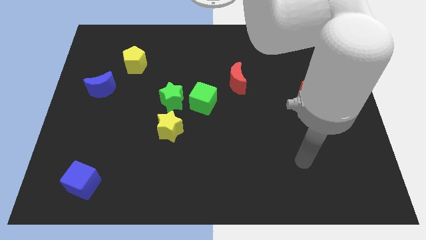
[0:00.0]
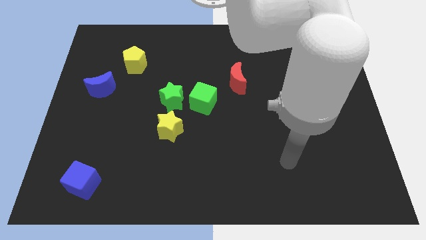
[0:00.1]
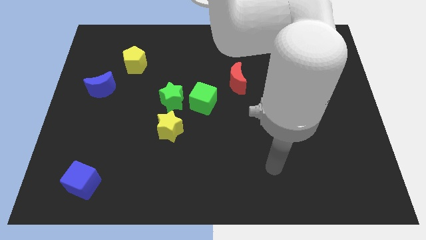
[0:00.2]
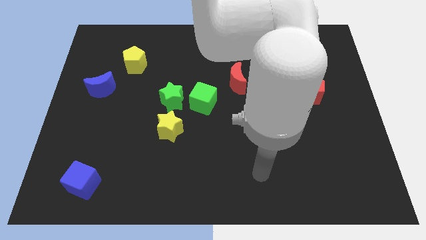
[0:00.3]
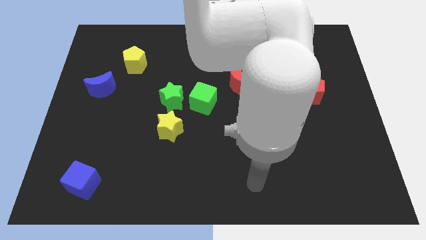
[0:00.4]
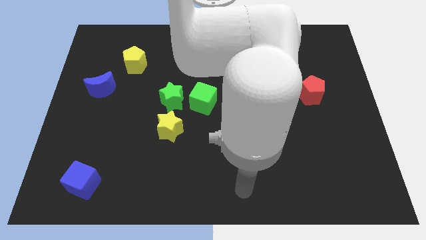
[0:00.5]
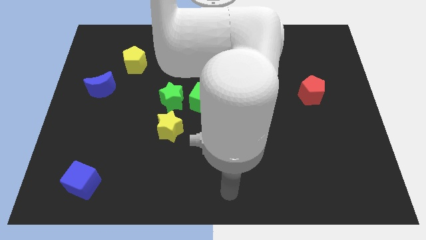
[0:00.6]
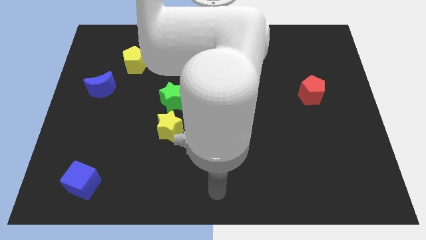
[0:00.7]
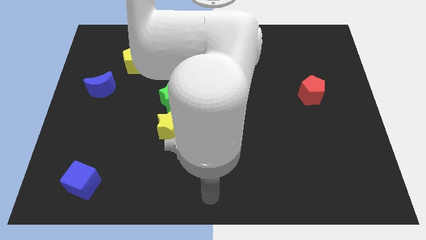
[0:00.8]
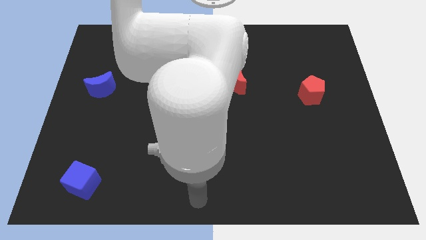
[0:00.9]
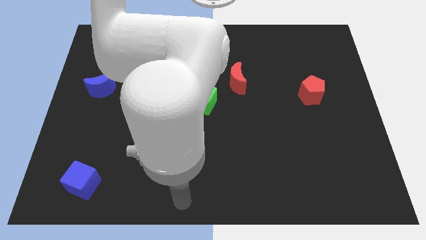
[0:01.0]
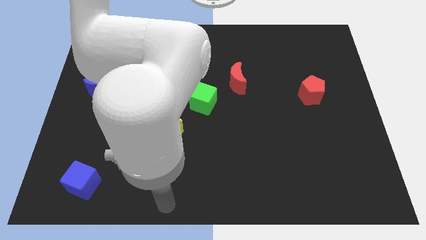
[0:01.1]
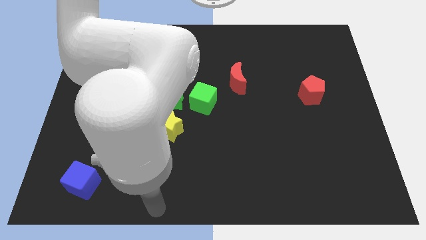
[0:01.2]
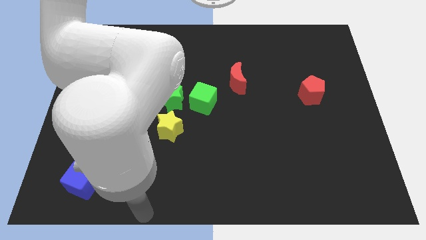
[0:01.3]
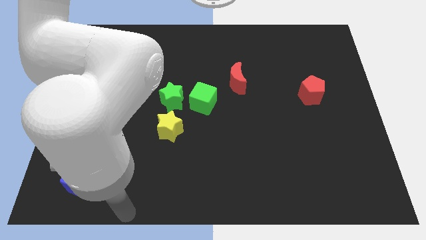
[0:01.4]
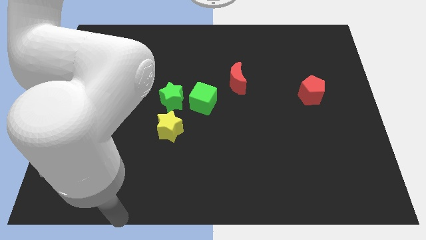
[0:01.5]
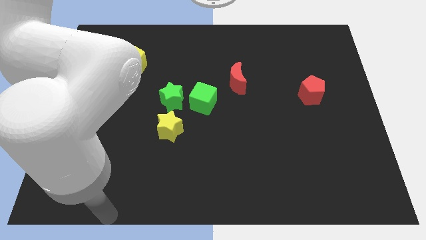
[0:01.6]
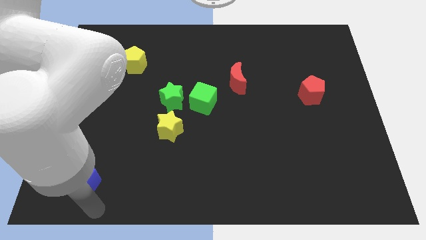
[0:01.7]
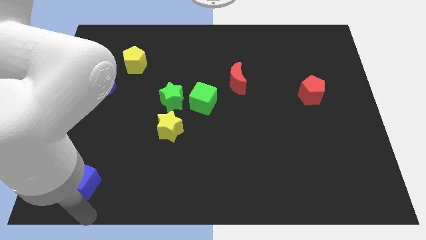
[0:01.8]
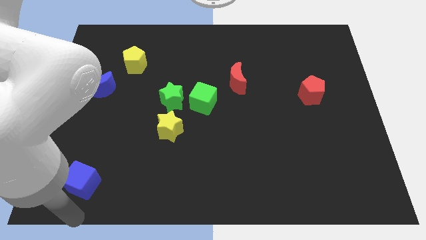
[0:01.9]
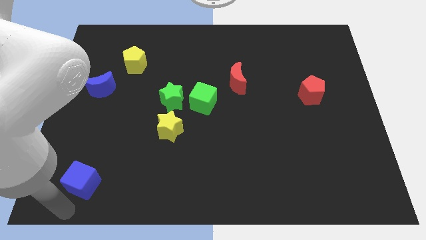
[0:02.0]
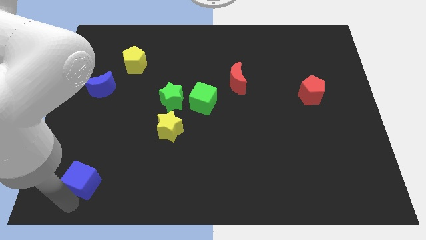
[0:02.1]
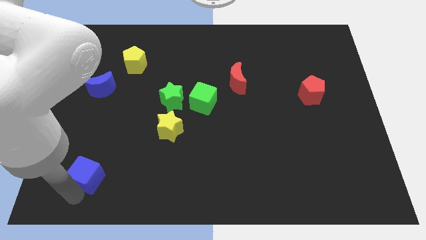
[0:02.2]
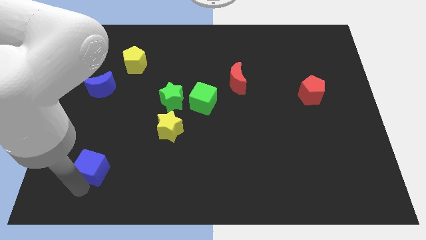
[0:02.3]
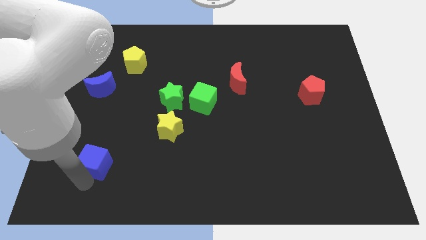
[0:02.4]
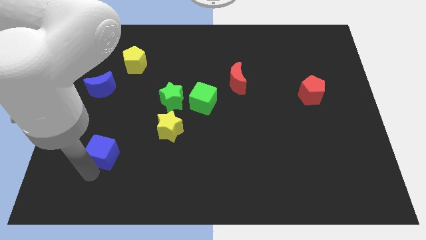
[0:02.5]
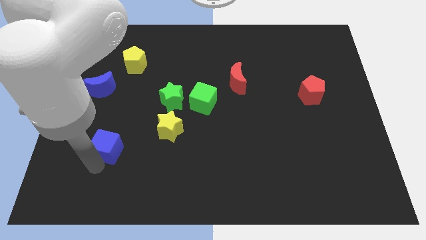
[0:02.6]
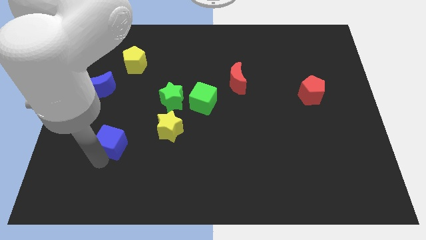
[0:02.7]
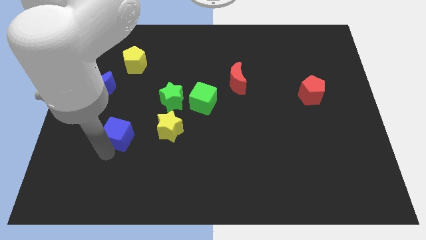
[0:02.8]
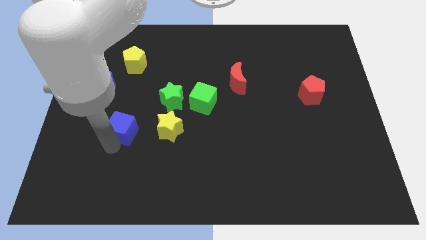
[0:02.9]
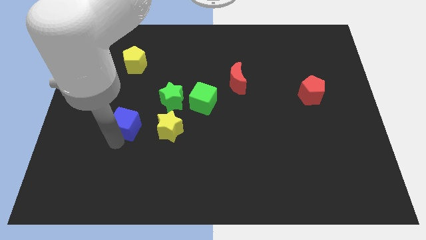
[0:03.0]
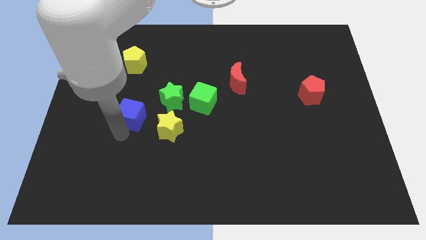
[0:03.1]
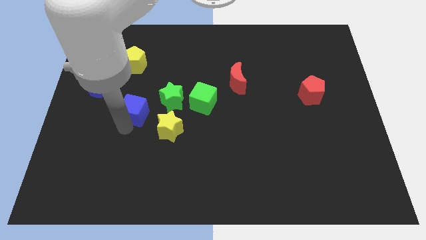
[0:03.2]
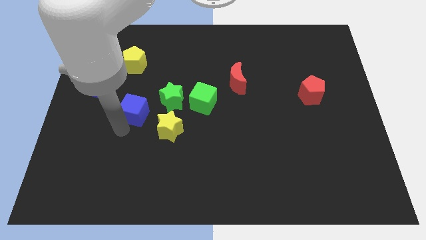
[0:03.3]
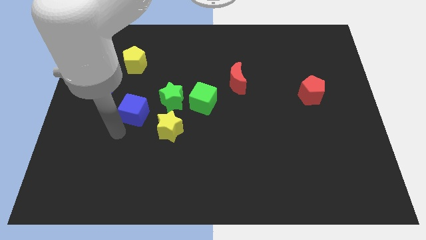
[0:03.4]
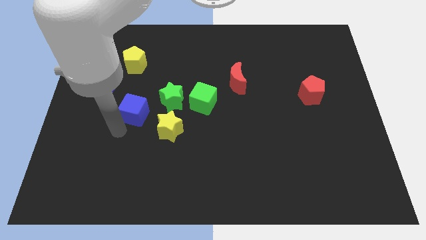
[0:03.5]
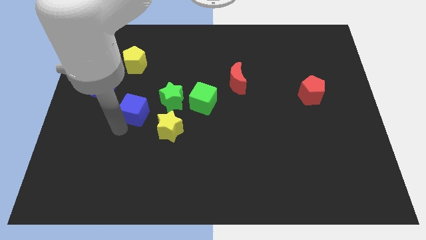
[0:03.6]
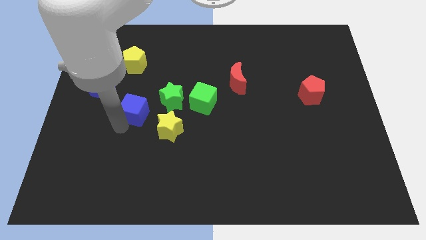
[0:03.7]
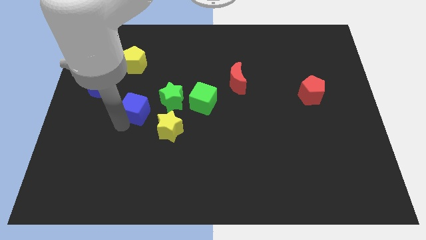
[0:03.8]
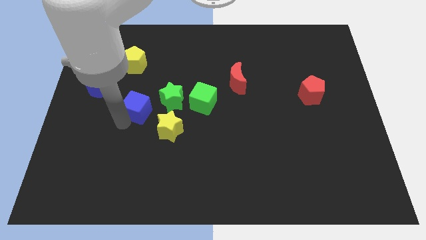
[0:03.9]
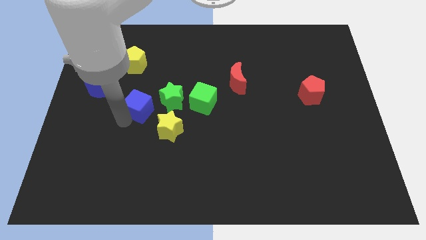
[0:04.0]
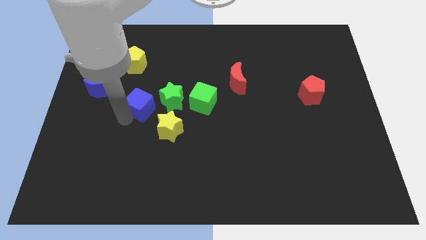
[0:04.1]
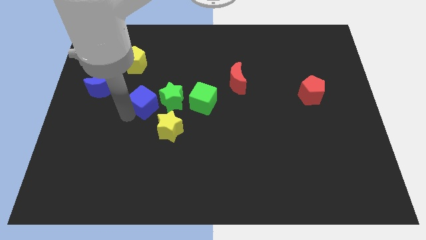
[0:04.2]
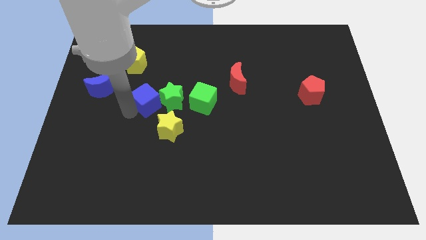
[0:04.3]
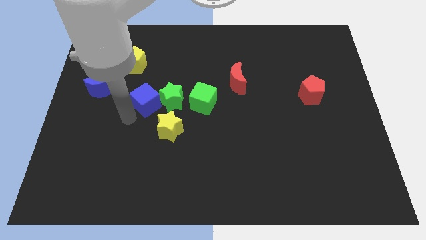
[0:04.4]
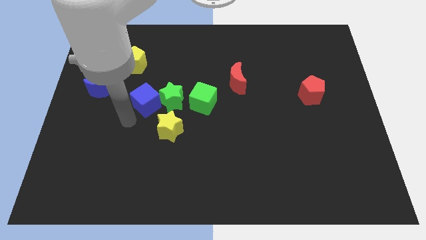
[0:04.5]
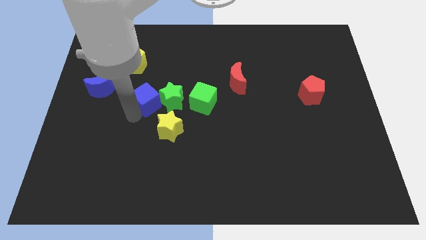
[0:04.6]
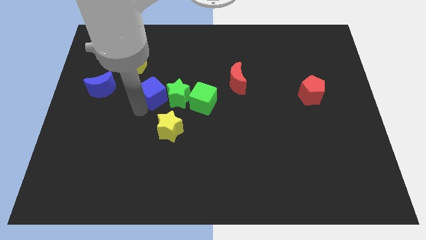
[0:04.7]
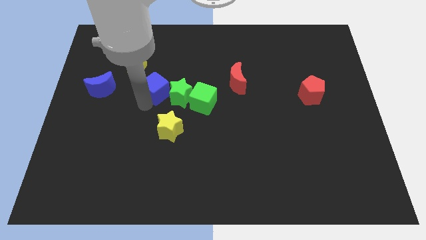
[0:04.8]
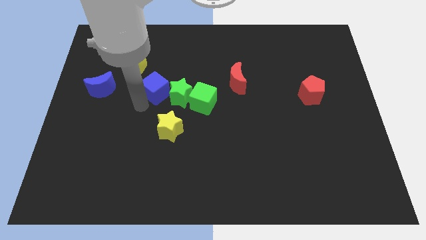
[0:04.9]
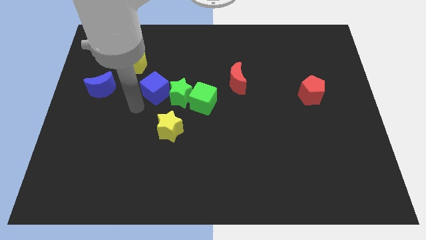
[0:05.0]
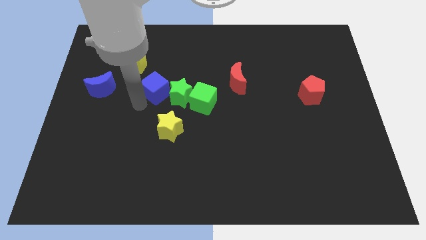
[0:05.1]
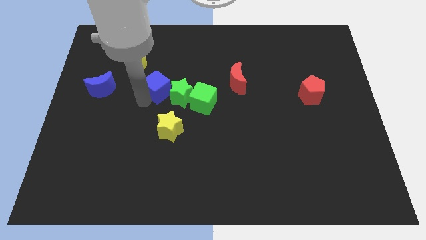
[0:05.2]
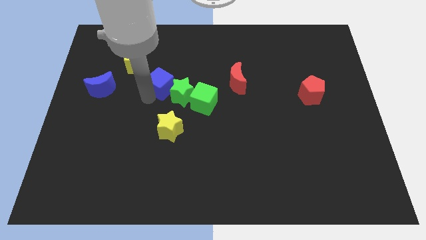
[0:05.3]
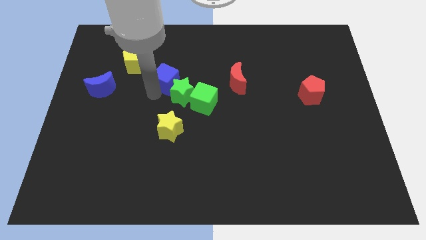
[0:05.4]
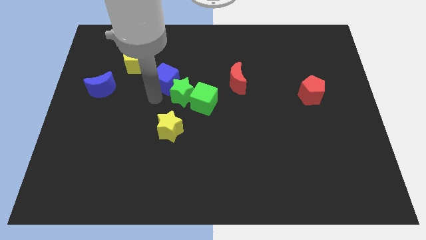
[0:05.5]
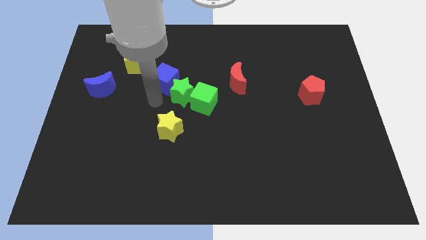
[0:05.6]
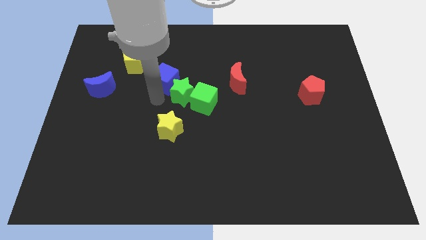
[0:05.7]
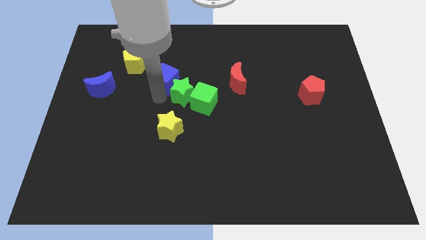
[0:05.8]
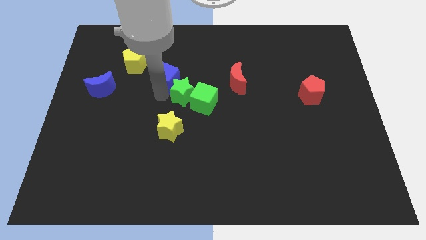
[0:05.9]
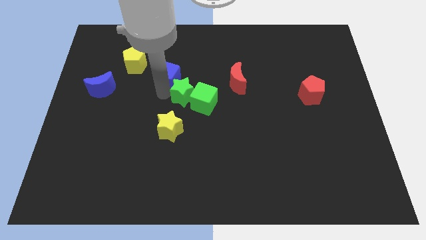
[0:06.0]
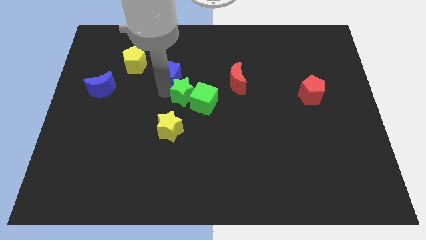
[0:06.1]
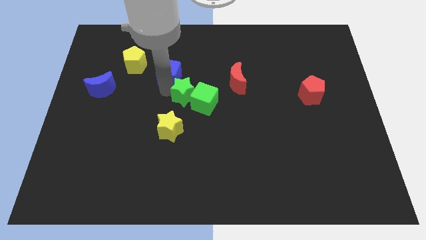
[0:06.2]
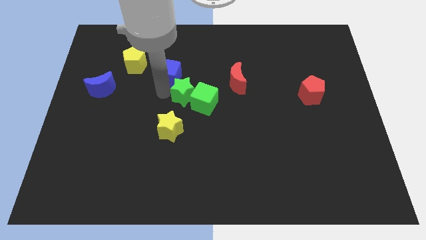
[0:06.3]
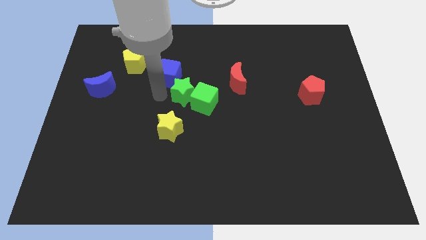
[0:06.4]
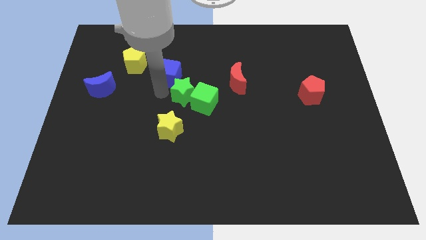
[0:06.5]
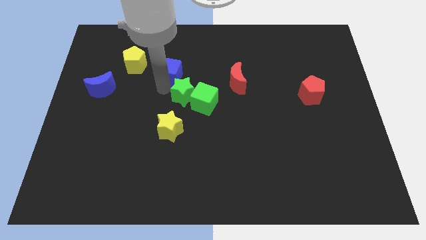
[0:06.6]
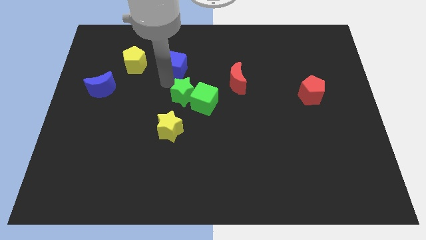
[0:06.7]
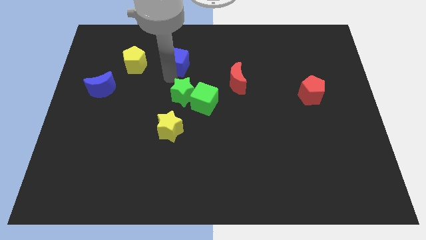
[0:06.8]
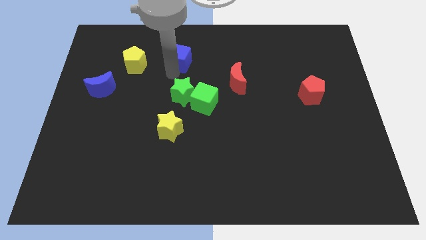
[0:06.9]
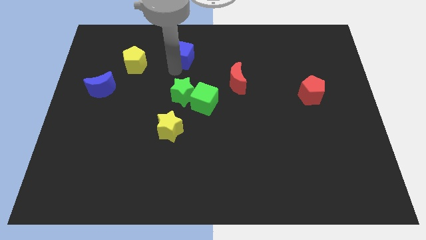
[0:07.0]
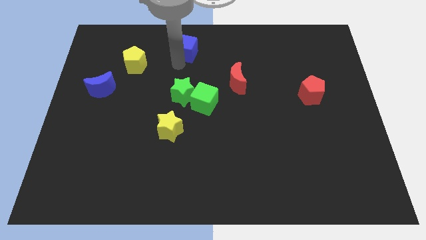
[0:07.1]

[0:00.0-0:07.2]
put the blue cube to the top side

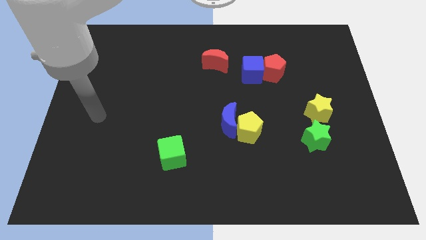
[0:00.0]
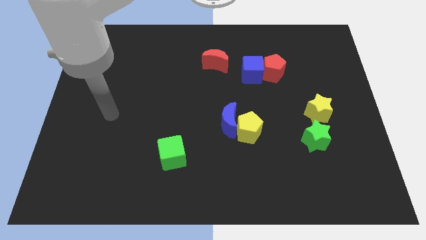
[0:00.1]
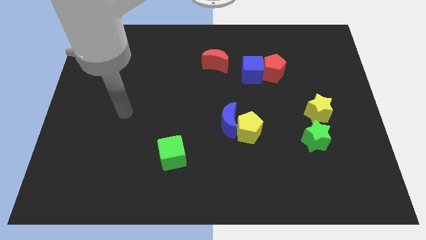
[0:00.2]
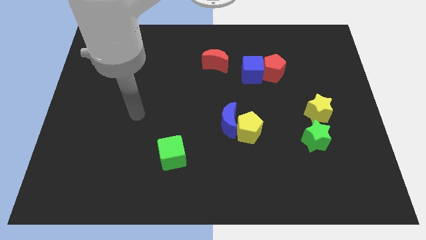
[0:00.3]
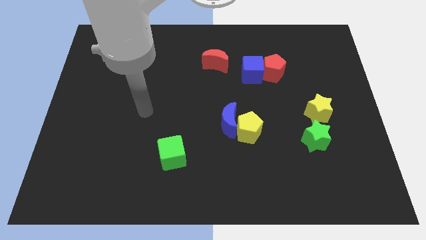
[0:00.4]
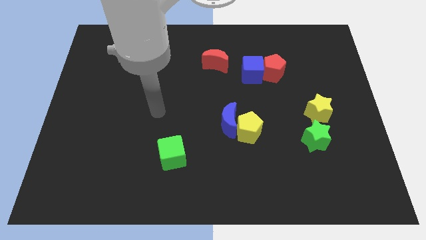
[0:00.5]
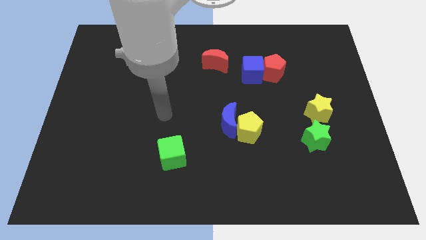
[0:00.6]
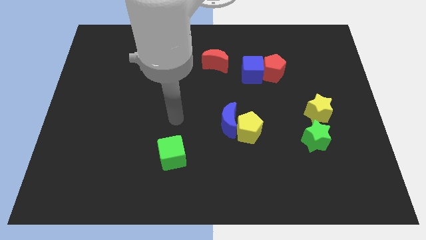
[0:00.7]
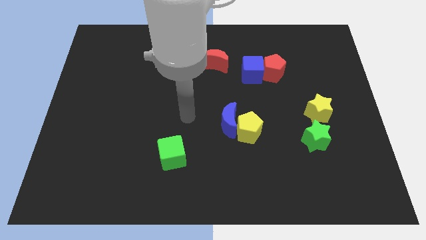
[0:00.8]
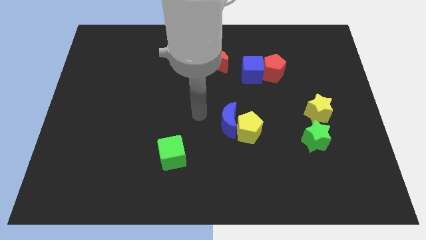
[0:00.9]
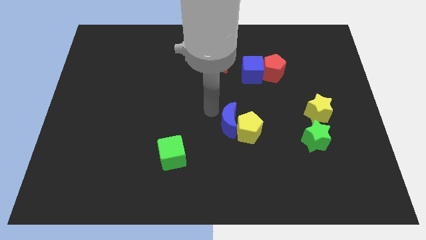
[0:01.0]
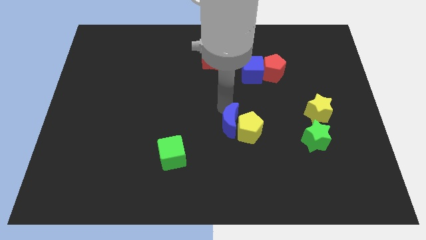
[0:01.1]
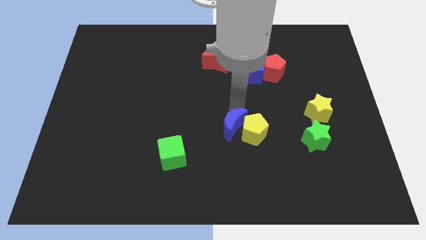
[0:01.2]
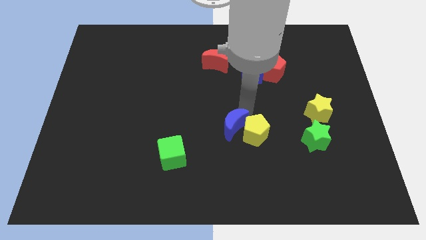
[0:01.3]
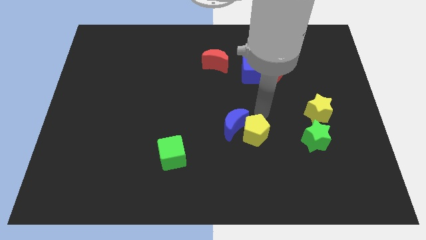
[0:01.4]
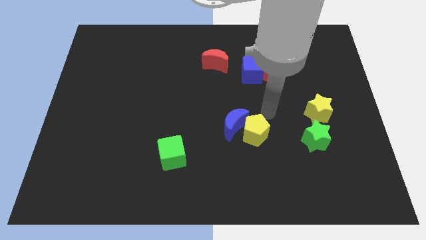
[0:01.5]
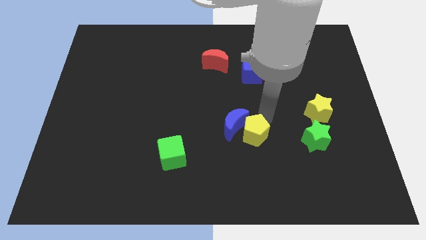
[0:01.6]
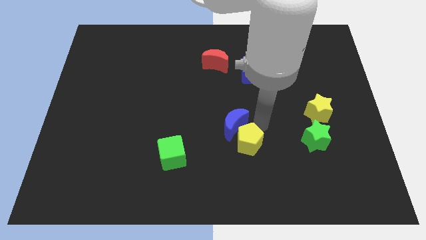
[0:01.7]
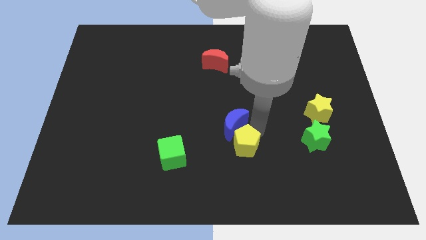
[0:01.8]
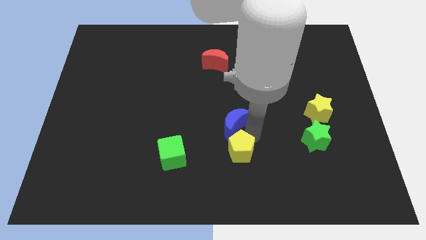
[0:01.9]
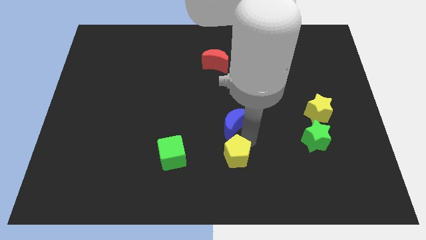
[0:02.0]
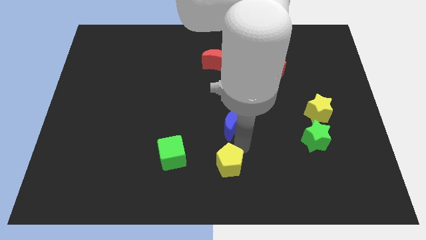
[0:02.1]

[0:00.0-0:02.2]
move the yellow pentagon to the bottom
